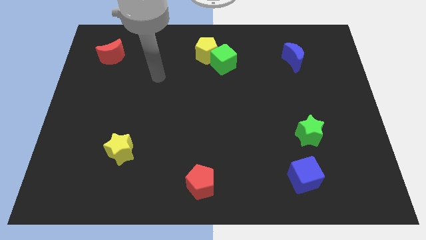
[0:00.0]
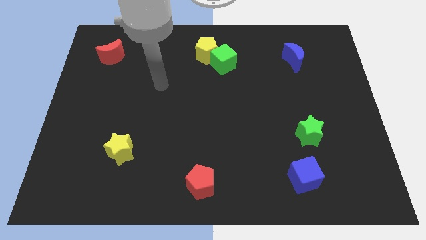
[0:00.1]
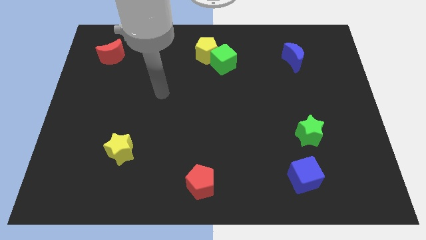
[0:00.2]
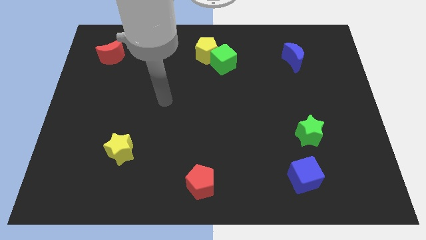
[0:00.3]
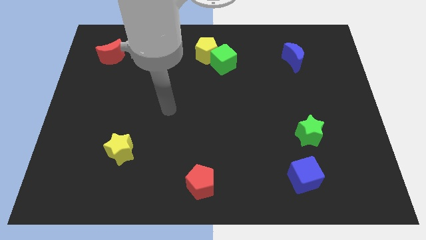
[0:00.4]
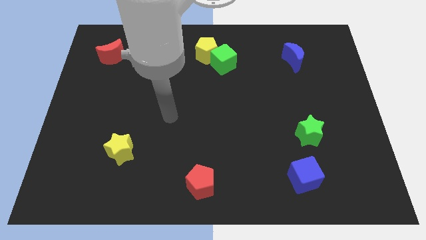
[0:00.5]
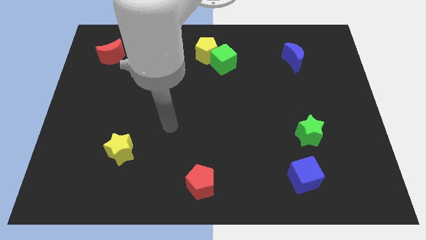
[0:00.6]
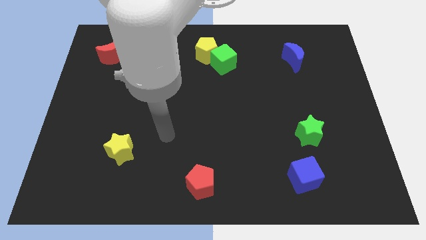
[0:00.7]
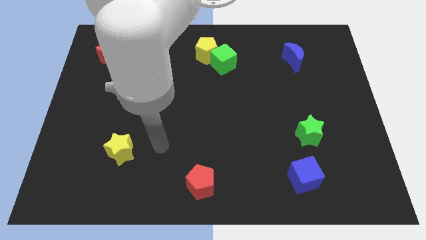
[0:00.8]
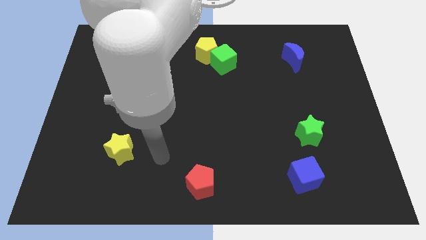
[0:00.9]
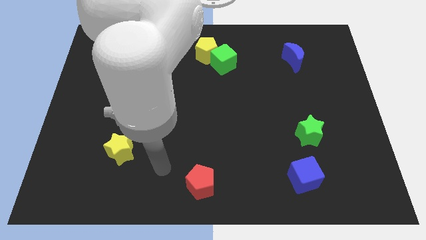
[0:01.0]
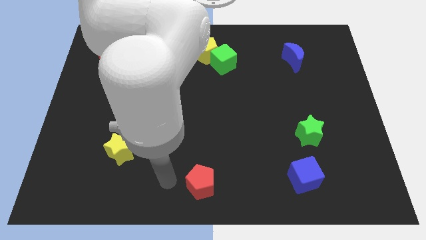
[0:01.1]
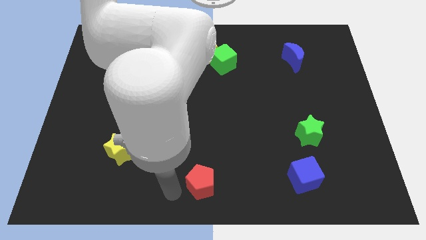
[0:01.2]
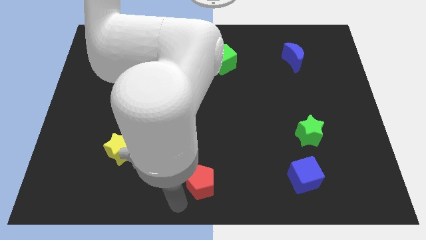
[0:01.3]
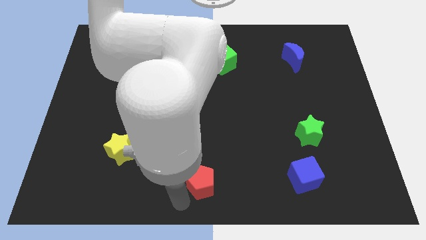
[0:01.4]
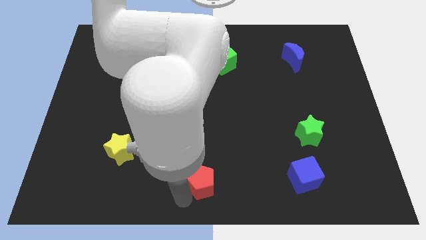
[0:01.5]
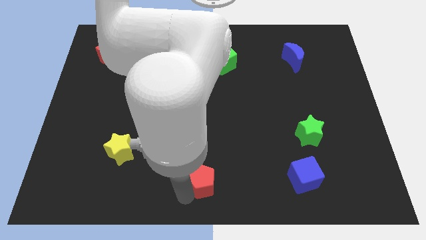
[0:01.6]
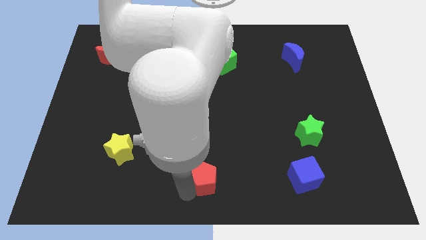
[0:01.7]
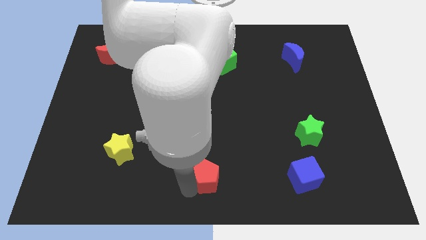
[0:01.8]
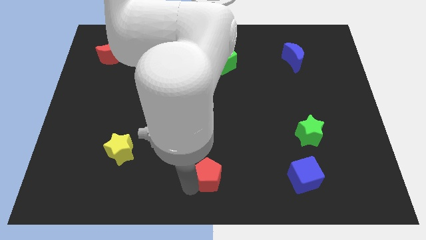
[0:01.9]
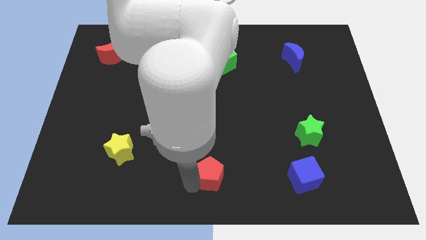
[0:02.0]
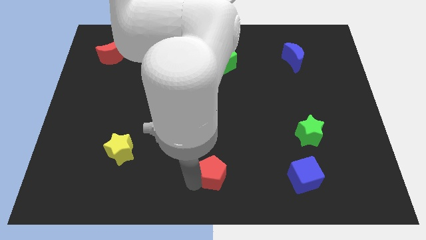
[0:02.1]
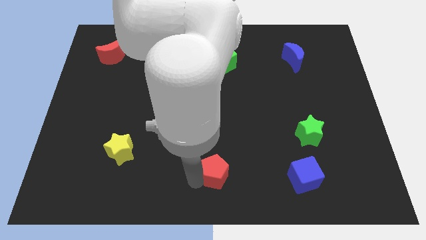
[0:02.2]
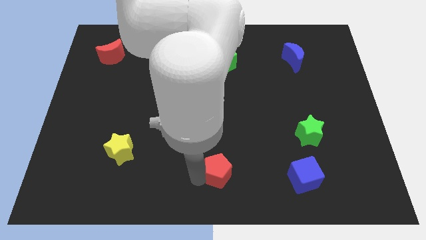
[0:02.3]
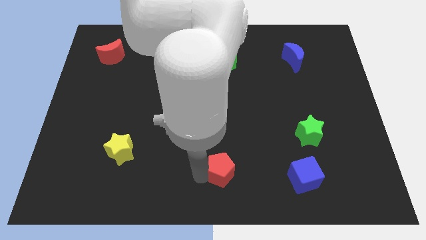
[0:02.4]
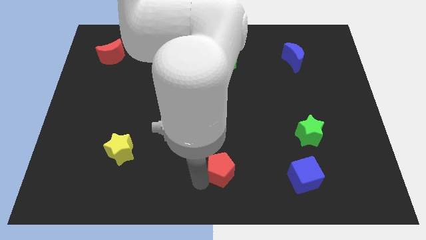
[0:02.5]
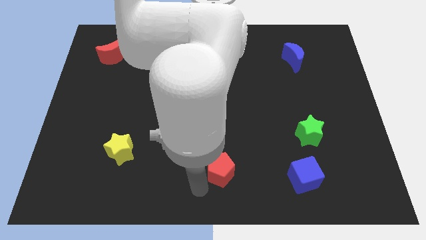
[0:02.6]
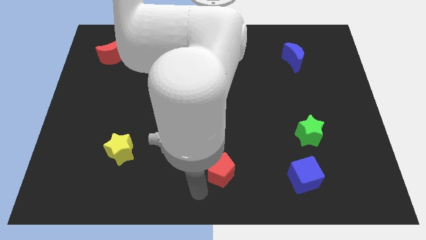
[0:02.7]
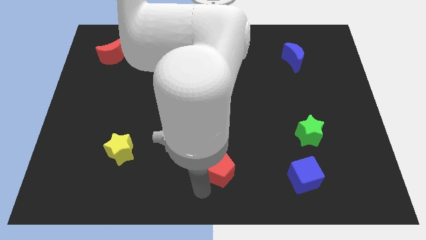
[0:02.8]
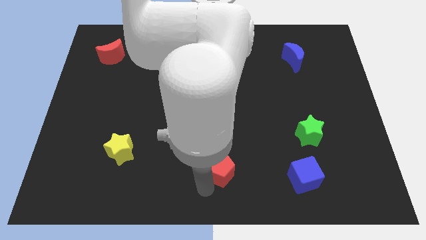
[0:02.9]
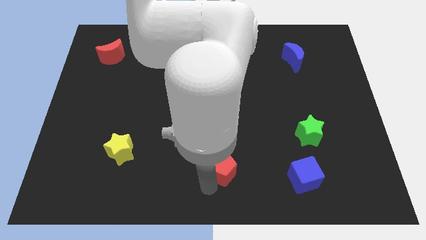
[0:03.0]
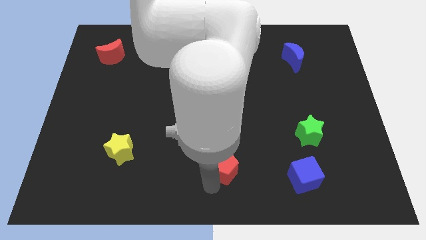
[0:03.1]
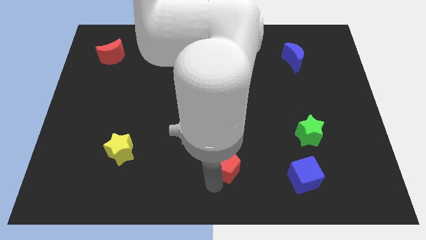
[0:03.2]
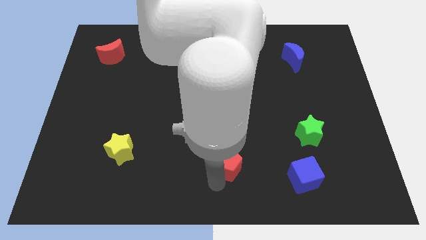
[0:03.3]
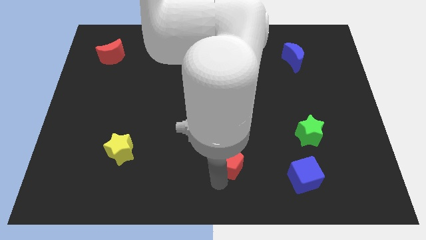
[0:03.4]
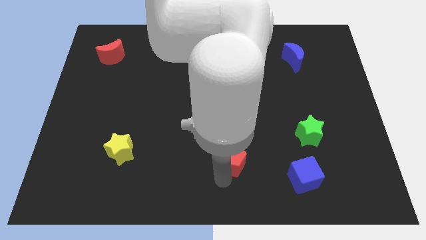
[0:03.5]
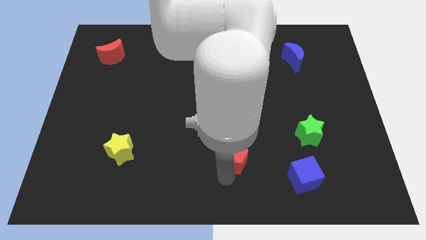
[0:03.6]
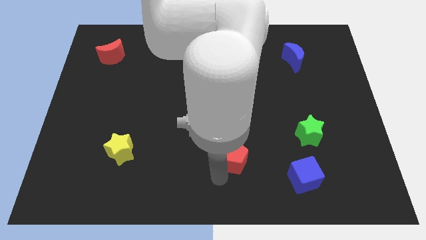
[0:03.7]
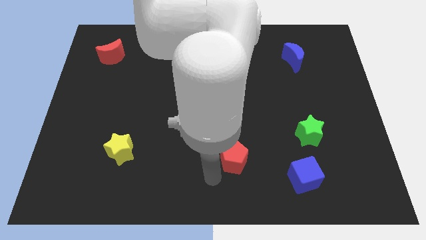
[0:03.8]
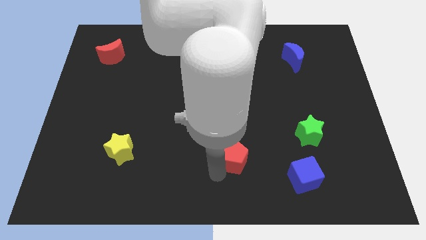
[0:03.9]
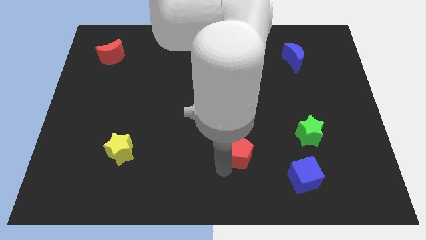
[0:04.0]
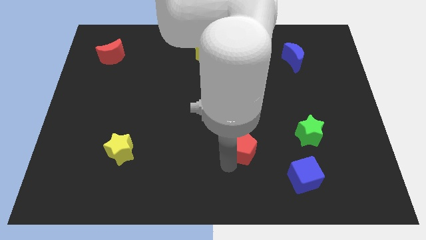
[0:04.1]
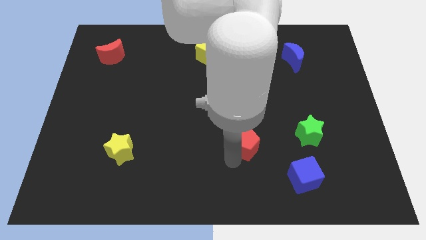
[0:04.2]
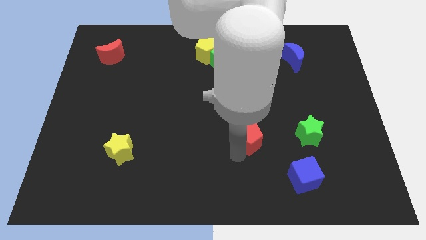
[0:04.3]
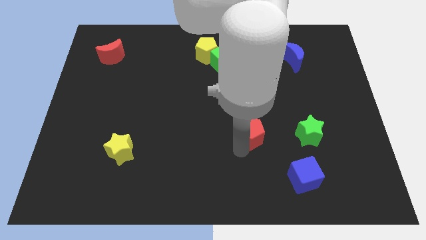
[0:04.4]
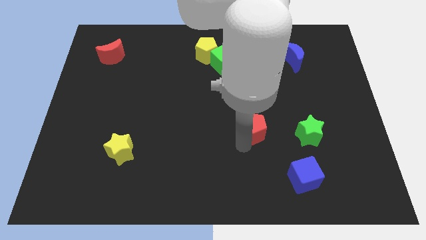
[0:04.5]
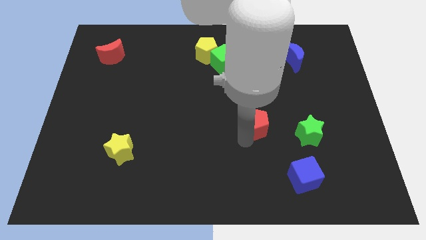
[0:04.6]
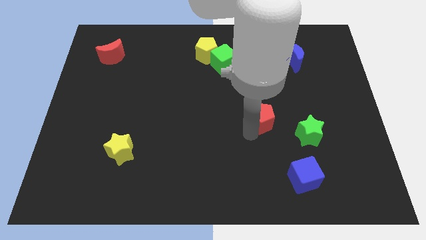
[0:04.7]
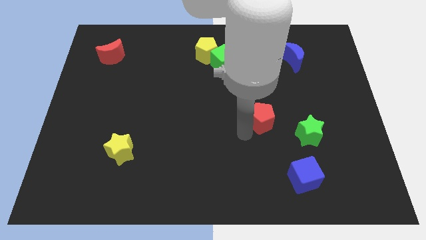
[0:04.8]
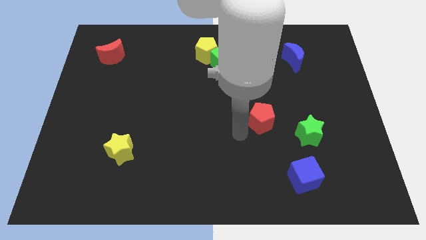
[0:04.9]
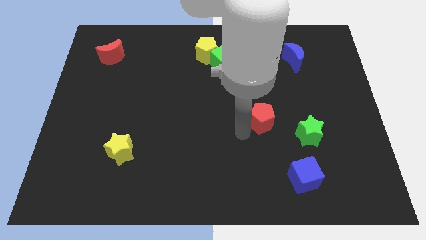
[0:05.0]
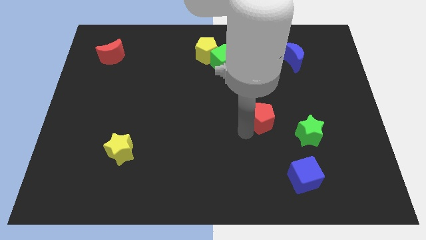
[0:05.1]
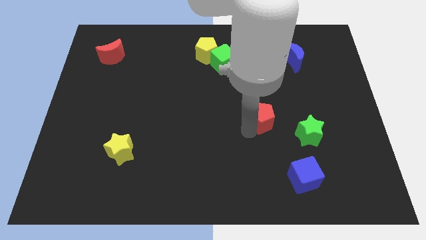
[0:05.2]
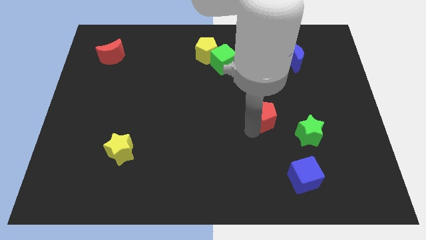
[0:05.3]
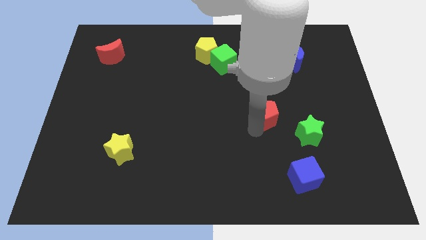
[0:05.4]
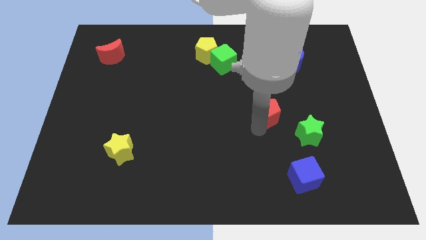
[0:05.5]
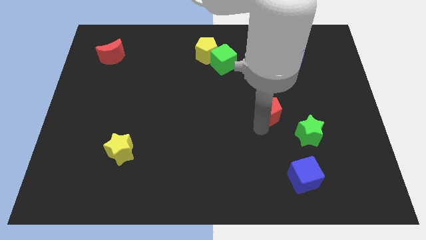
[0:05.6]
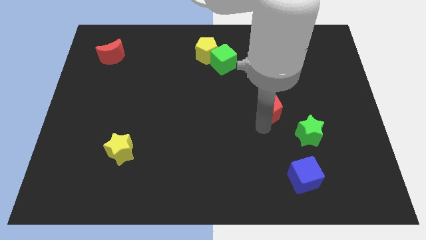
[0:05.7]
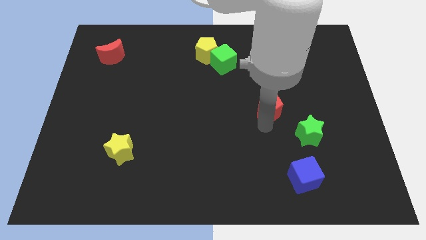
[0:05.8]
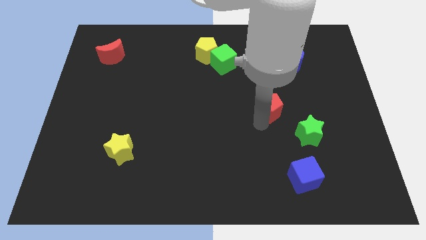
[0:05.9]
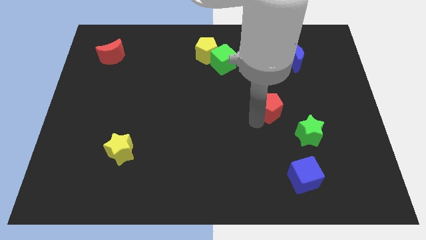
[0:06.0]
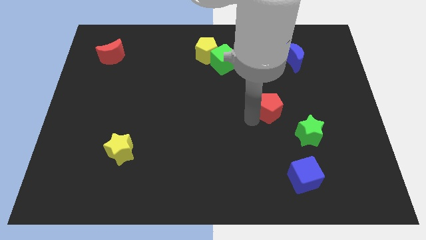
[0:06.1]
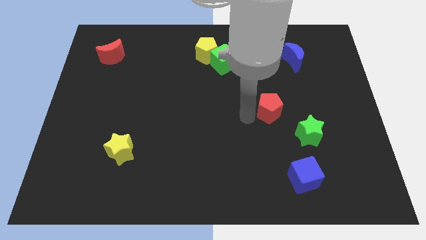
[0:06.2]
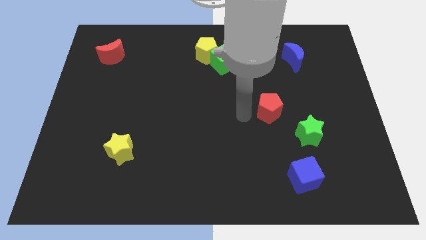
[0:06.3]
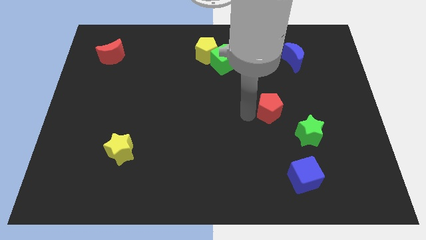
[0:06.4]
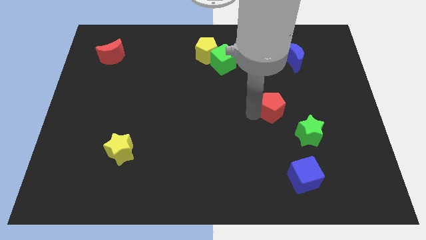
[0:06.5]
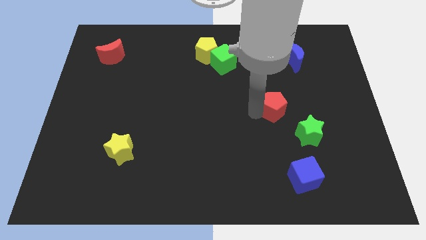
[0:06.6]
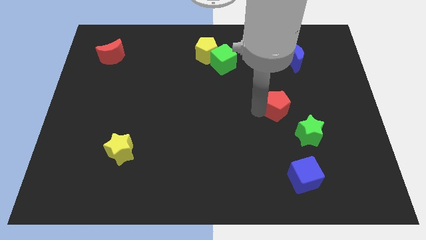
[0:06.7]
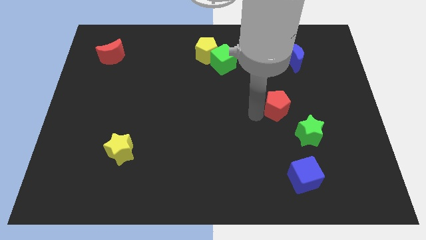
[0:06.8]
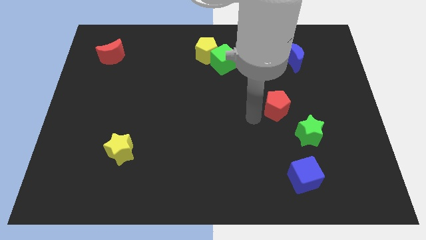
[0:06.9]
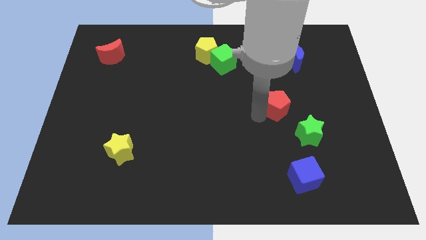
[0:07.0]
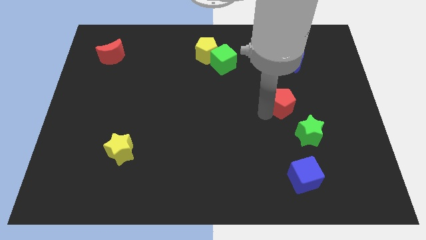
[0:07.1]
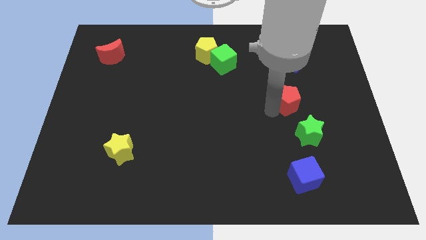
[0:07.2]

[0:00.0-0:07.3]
move the red pentagon to the top side of the green star

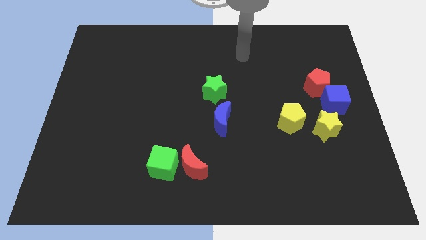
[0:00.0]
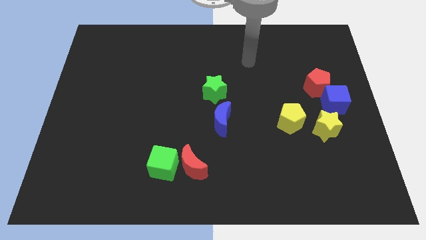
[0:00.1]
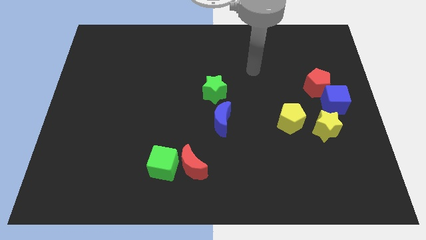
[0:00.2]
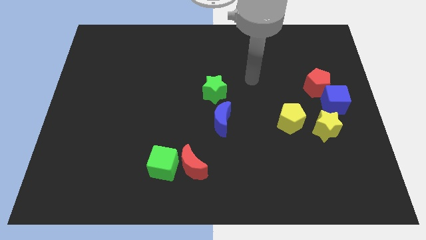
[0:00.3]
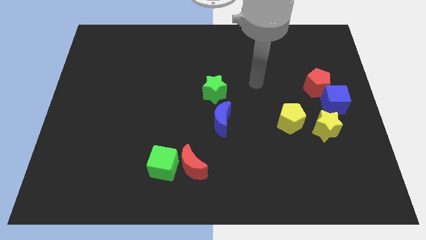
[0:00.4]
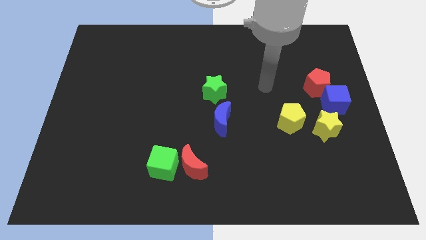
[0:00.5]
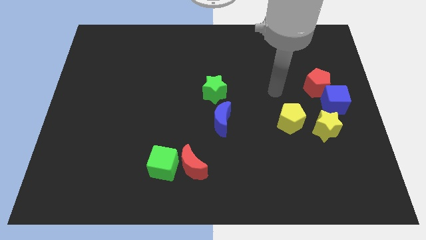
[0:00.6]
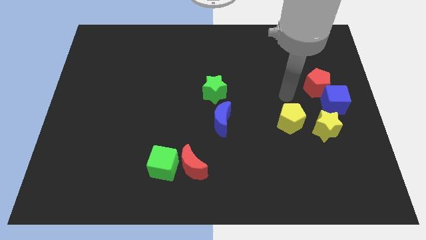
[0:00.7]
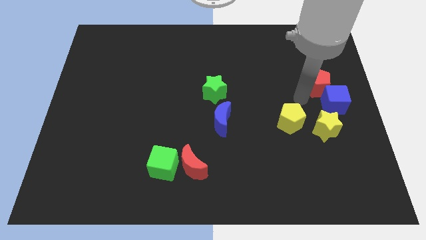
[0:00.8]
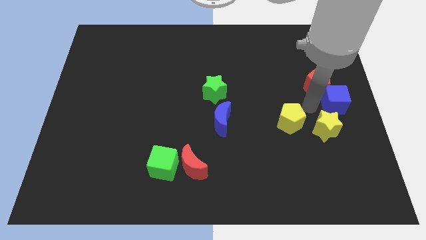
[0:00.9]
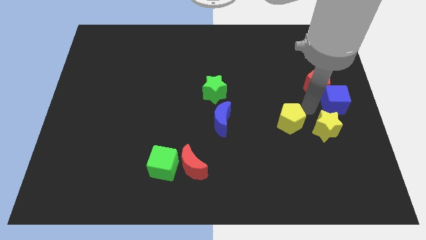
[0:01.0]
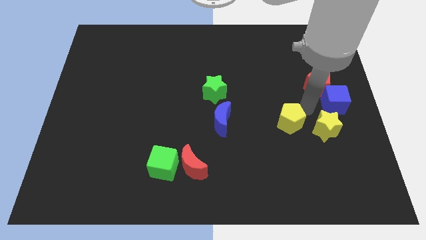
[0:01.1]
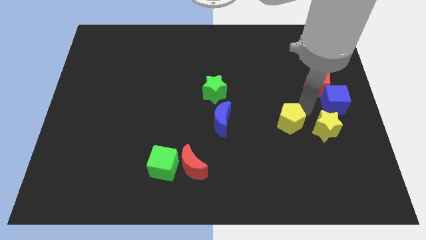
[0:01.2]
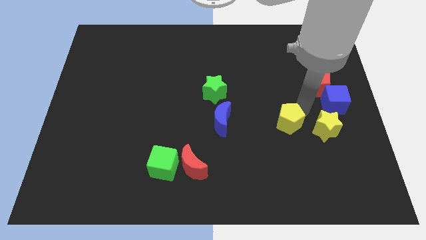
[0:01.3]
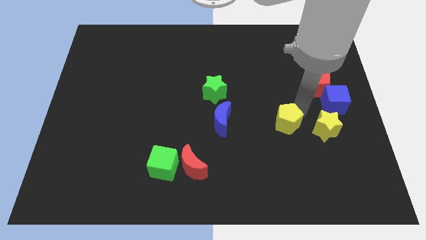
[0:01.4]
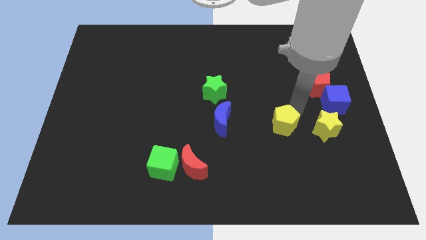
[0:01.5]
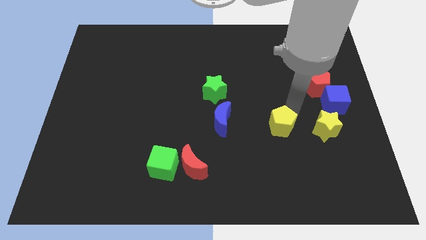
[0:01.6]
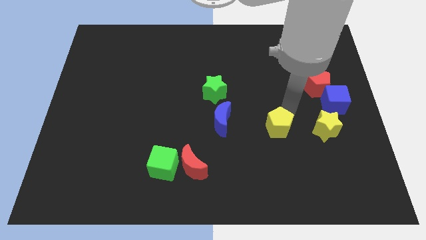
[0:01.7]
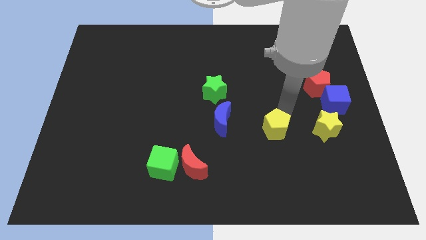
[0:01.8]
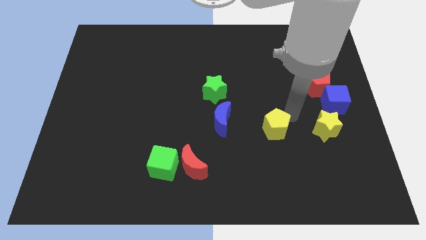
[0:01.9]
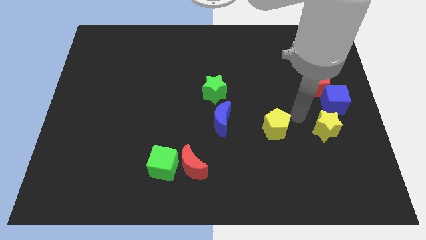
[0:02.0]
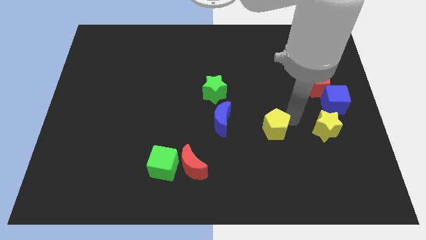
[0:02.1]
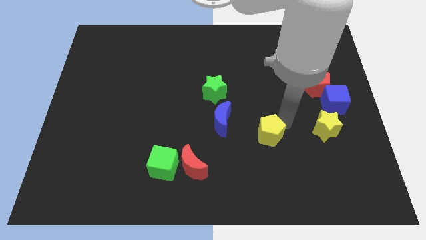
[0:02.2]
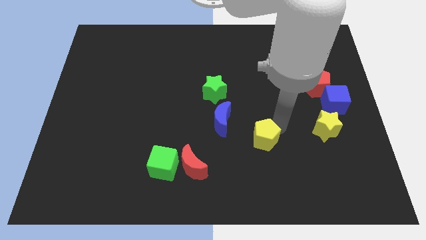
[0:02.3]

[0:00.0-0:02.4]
put the yellow pentagon diagonally down and to the right of the blue moon
